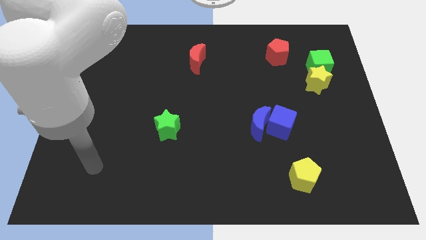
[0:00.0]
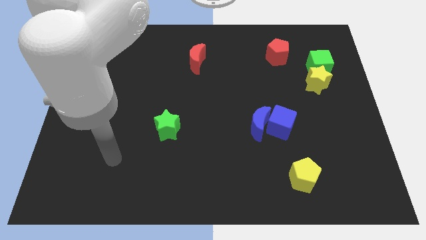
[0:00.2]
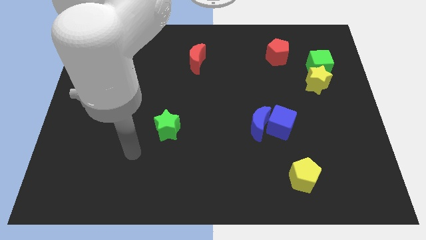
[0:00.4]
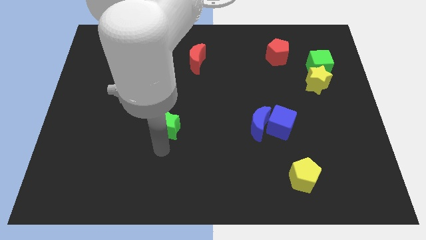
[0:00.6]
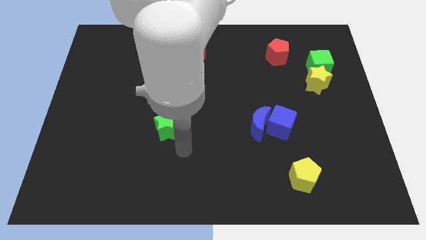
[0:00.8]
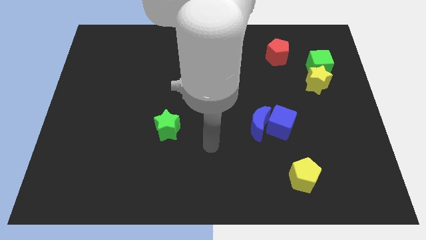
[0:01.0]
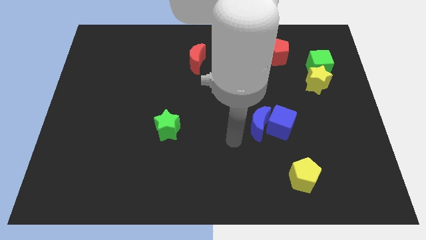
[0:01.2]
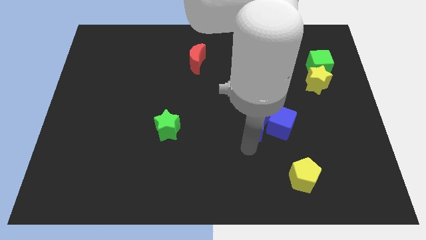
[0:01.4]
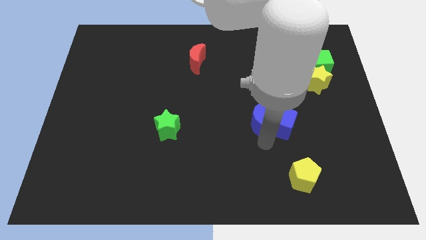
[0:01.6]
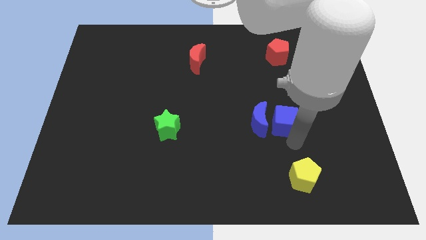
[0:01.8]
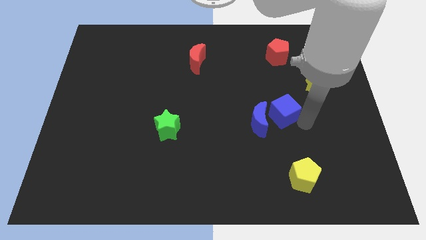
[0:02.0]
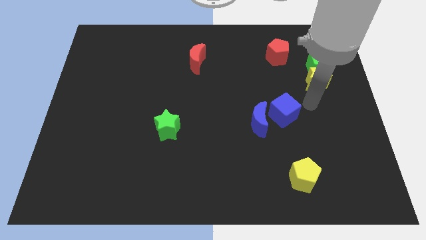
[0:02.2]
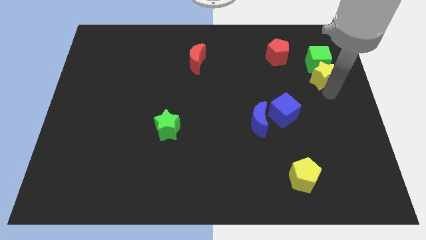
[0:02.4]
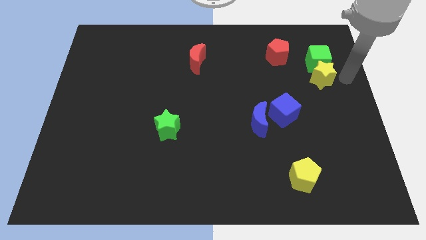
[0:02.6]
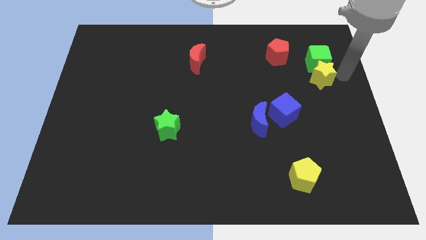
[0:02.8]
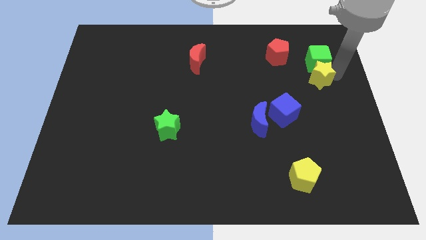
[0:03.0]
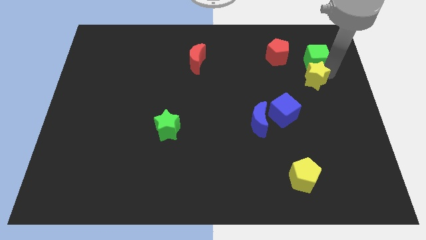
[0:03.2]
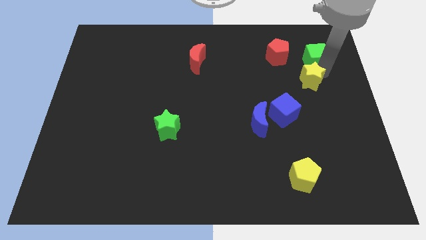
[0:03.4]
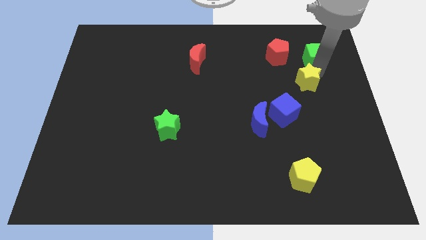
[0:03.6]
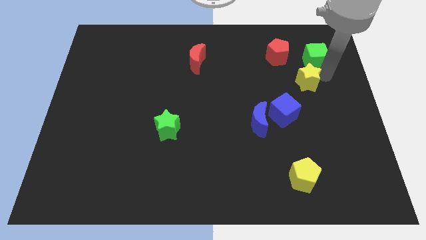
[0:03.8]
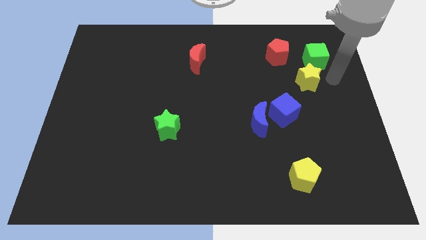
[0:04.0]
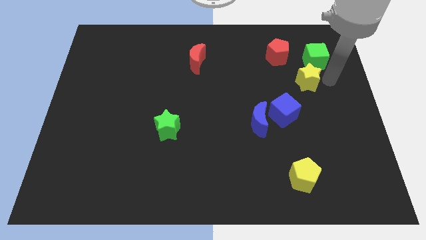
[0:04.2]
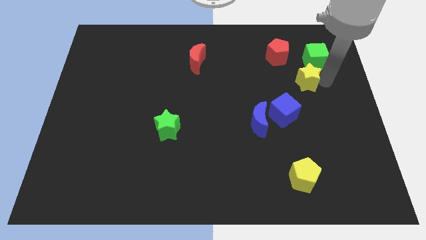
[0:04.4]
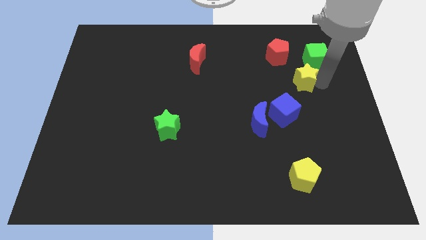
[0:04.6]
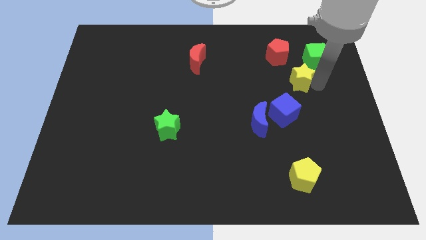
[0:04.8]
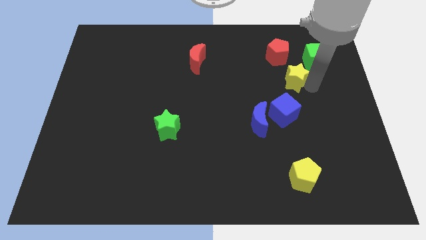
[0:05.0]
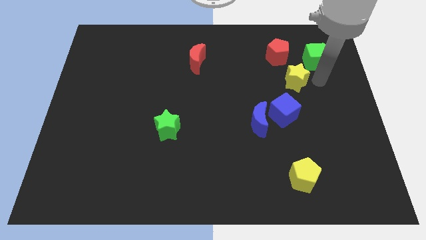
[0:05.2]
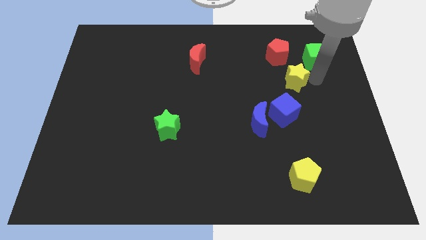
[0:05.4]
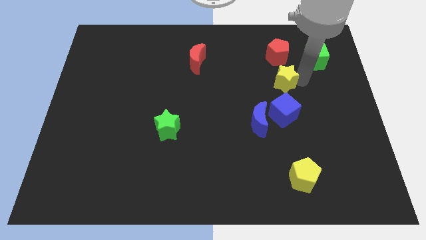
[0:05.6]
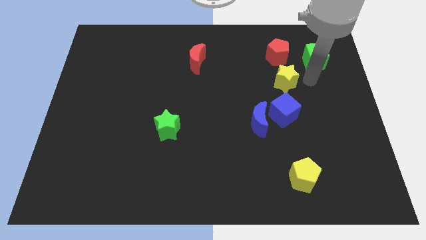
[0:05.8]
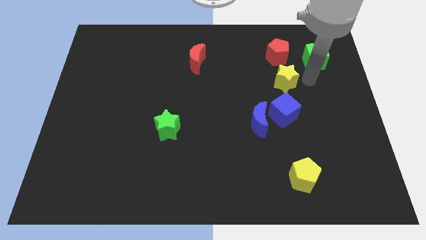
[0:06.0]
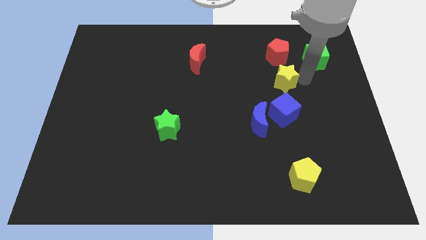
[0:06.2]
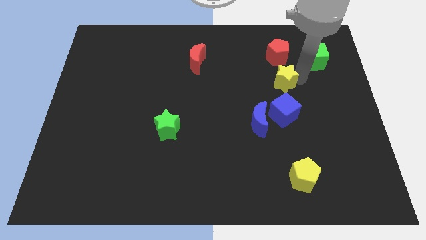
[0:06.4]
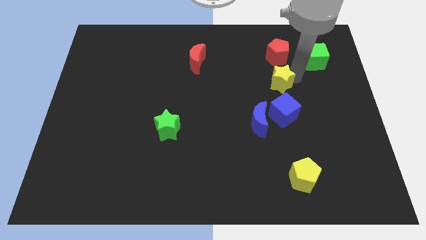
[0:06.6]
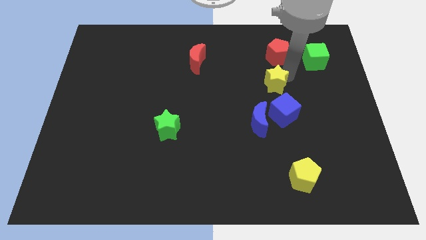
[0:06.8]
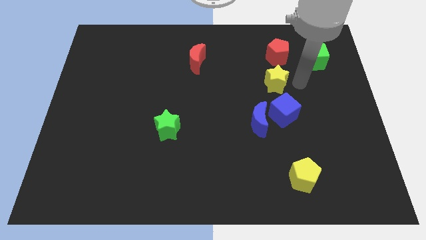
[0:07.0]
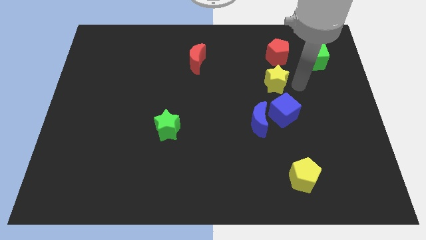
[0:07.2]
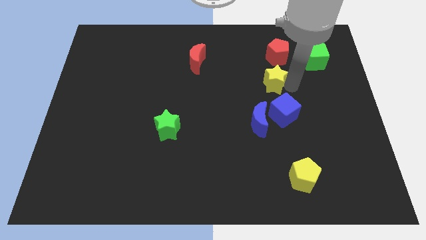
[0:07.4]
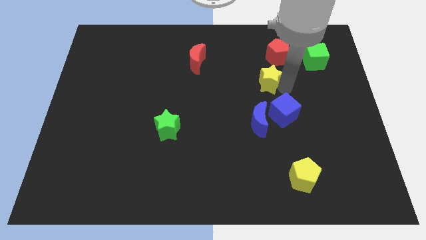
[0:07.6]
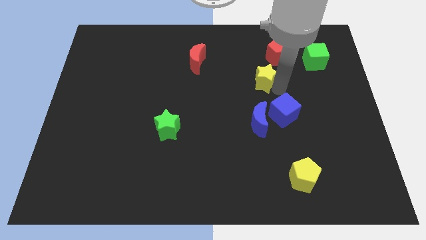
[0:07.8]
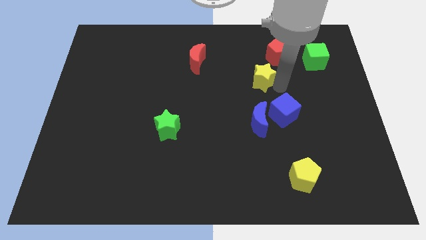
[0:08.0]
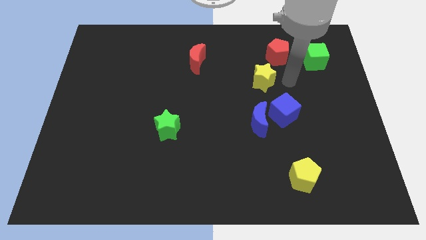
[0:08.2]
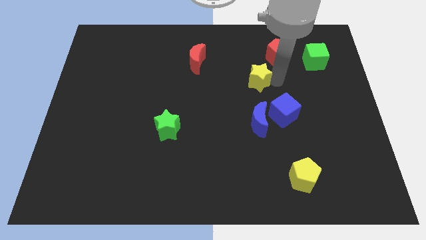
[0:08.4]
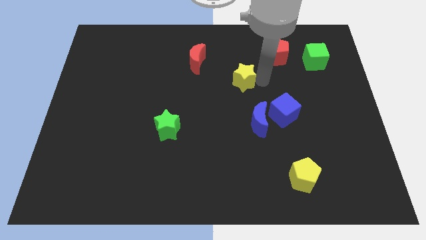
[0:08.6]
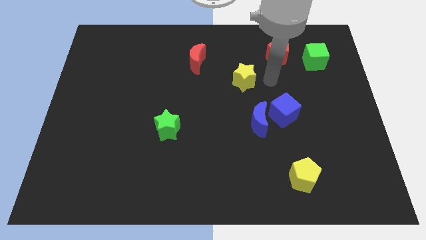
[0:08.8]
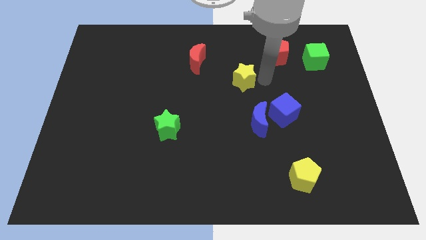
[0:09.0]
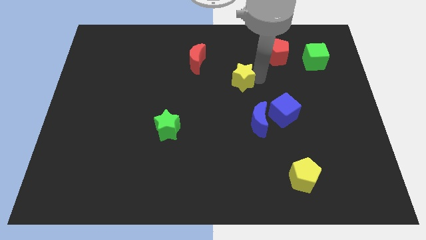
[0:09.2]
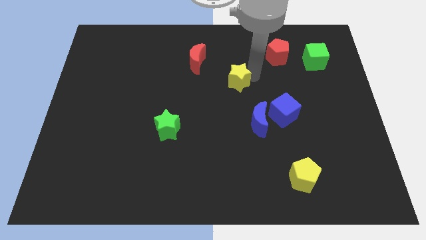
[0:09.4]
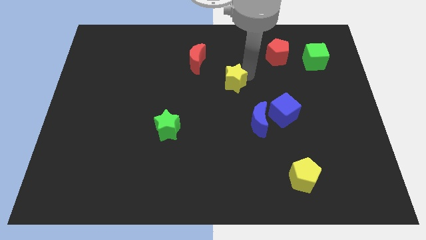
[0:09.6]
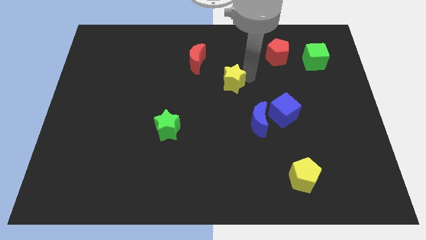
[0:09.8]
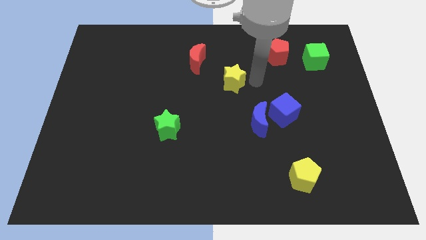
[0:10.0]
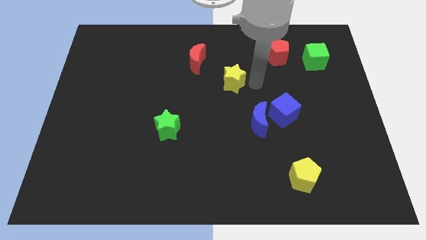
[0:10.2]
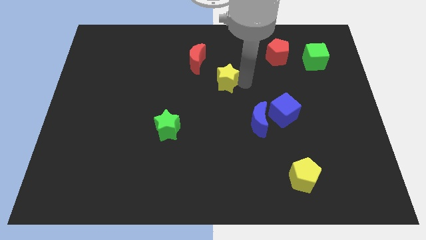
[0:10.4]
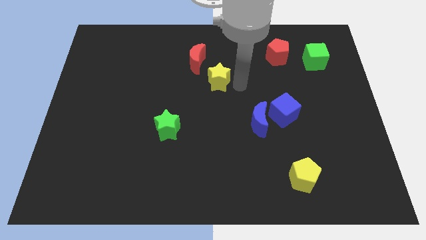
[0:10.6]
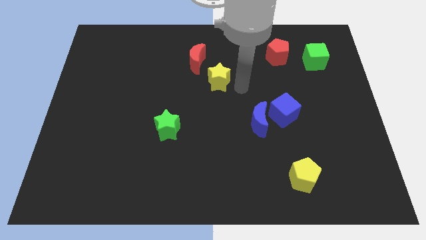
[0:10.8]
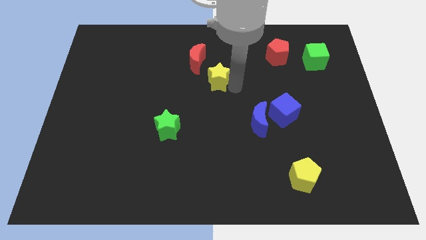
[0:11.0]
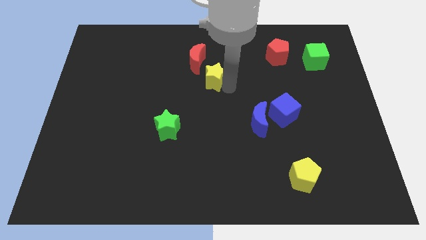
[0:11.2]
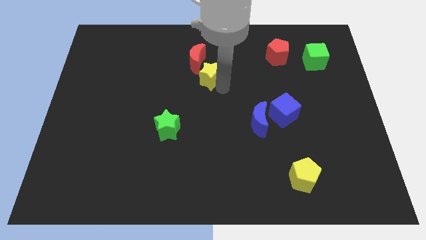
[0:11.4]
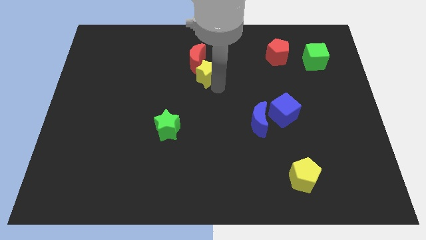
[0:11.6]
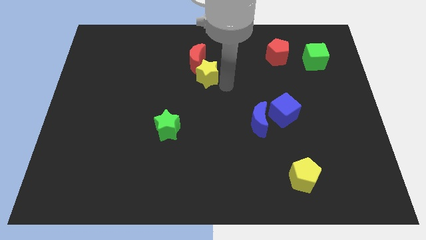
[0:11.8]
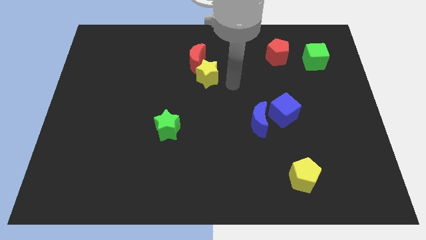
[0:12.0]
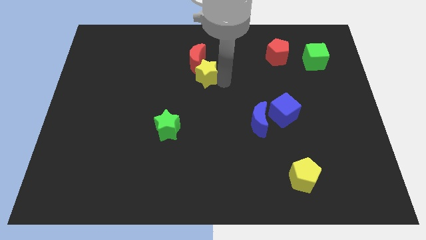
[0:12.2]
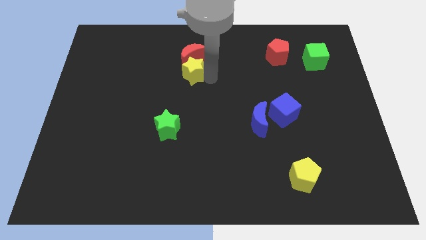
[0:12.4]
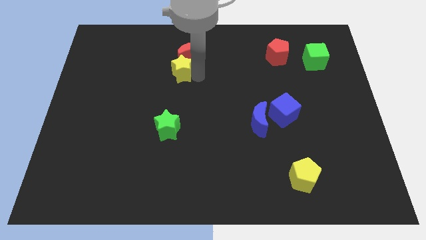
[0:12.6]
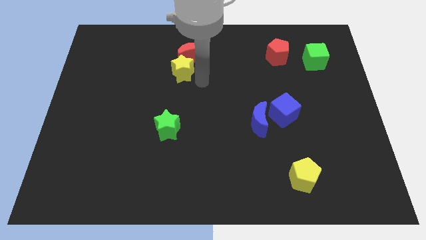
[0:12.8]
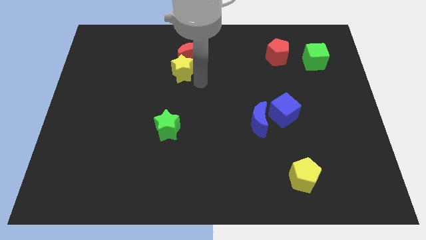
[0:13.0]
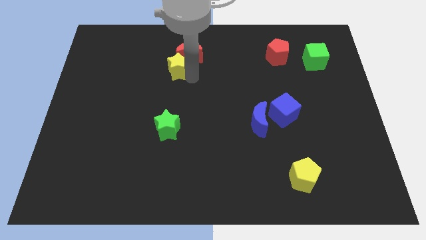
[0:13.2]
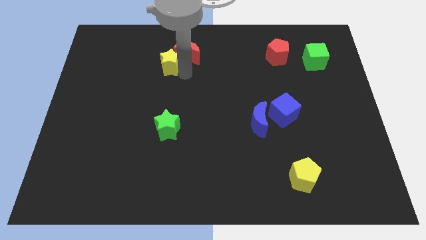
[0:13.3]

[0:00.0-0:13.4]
push the yellow star left of the red moon
